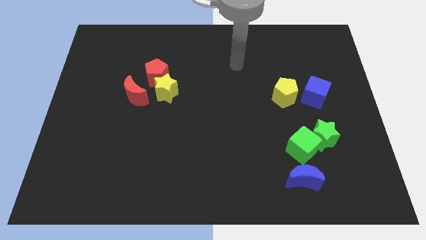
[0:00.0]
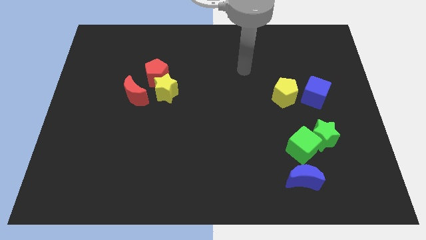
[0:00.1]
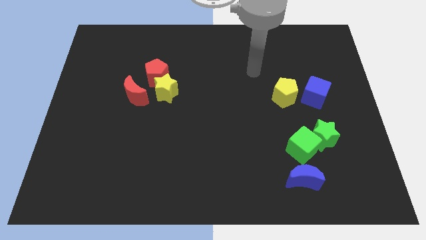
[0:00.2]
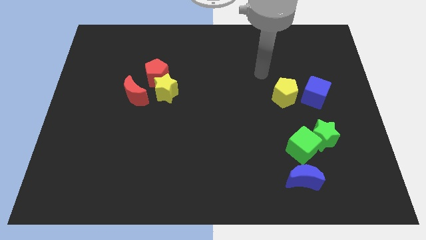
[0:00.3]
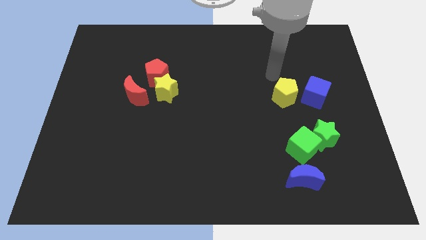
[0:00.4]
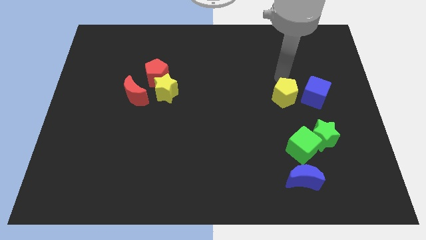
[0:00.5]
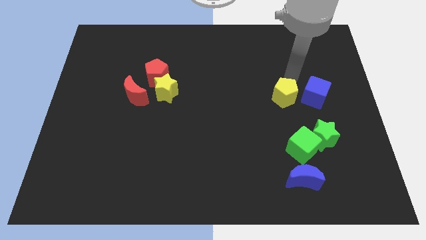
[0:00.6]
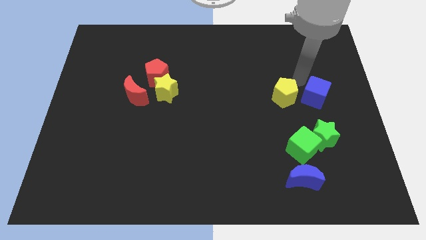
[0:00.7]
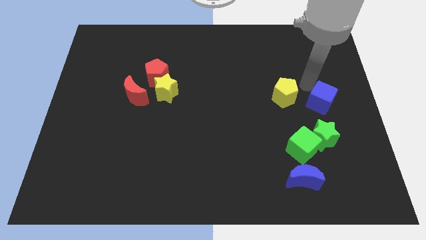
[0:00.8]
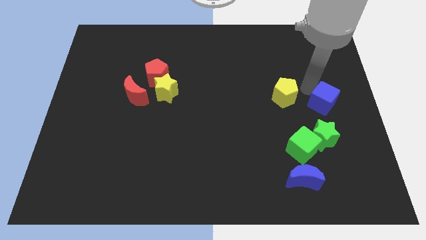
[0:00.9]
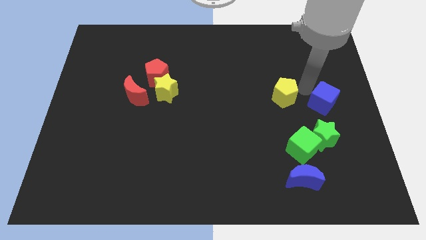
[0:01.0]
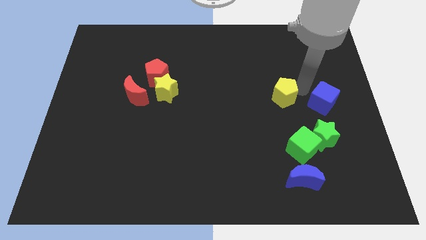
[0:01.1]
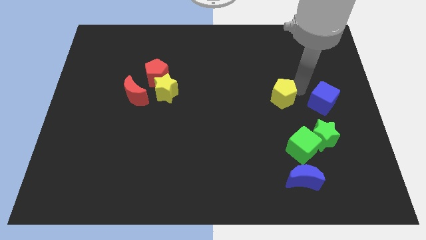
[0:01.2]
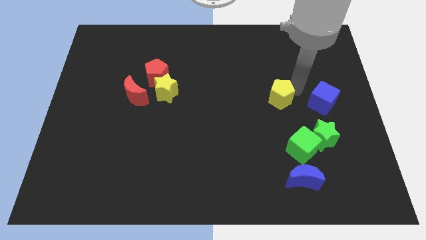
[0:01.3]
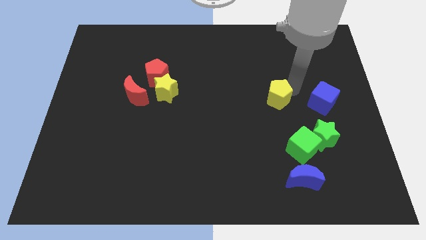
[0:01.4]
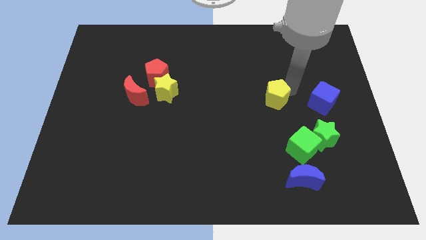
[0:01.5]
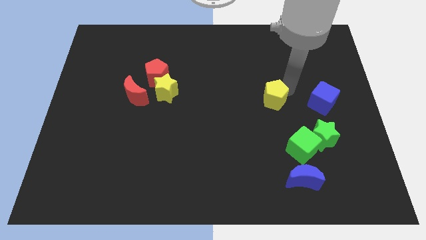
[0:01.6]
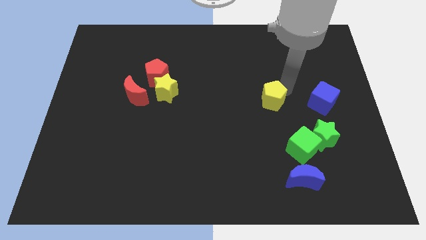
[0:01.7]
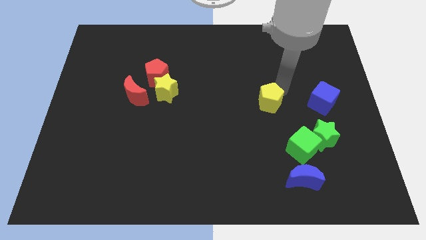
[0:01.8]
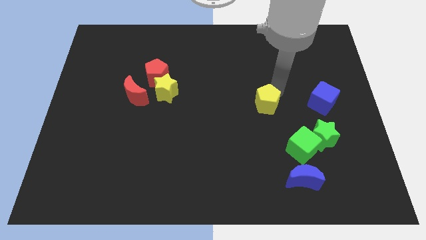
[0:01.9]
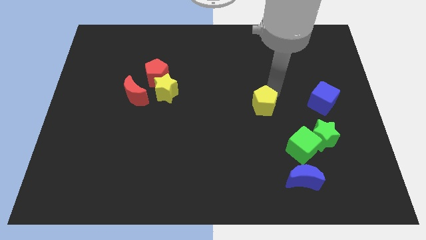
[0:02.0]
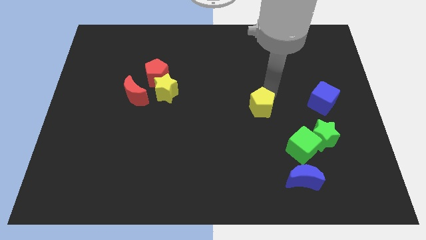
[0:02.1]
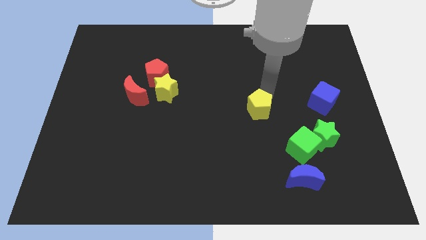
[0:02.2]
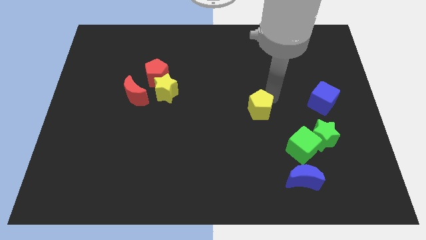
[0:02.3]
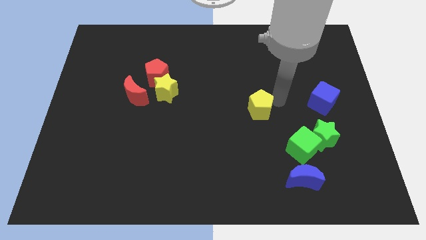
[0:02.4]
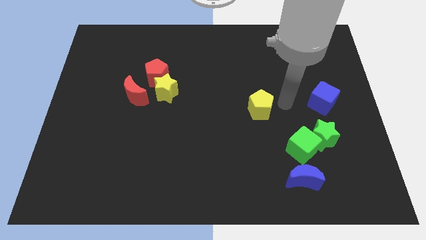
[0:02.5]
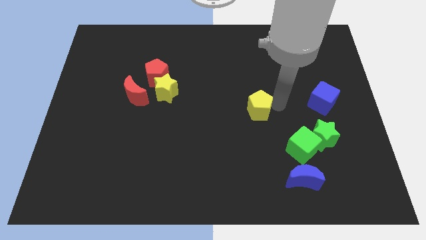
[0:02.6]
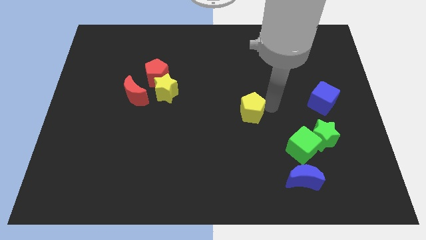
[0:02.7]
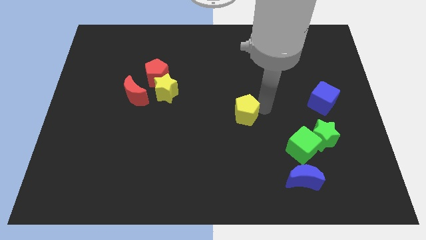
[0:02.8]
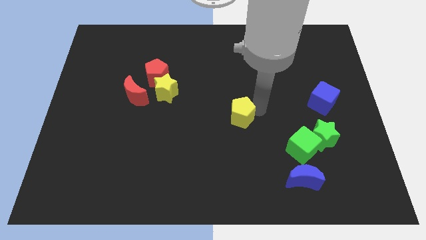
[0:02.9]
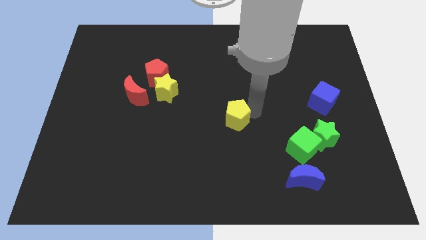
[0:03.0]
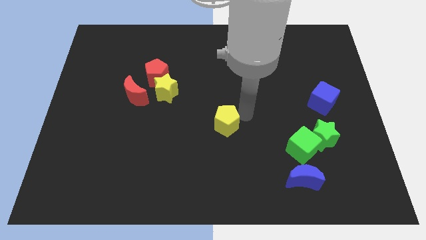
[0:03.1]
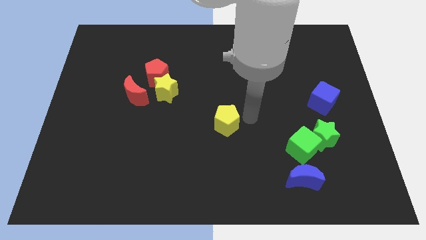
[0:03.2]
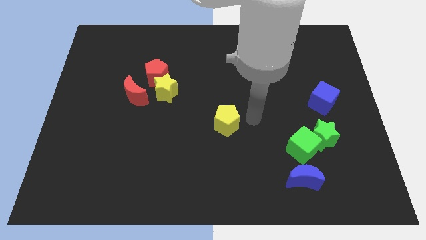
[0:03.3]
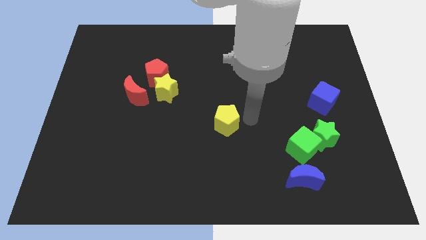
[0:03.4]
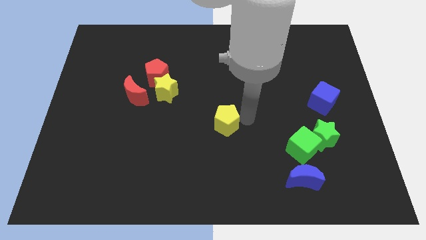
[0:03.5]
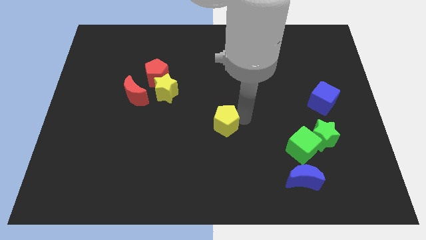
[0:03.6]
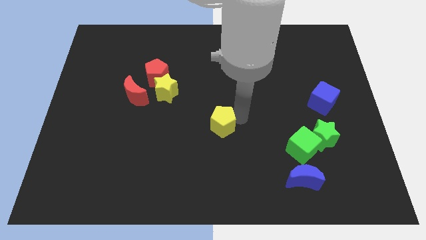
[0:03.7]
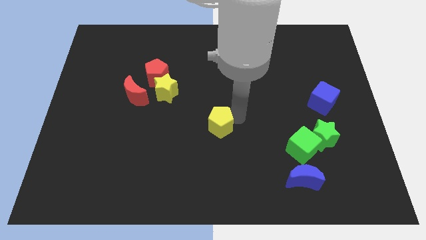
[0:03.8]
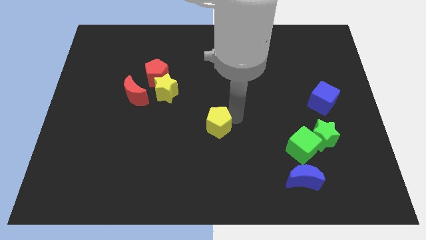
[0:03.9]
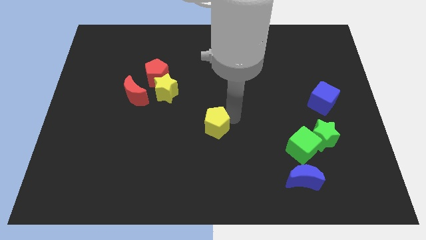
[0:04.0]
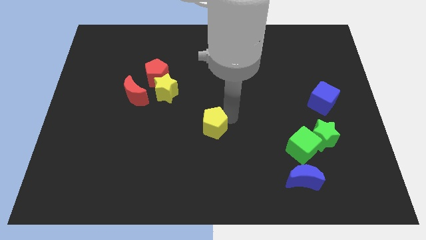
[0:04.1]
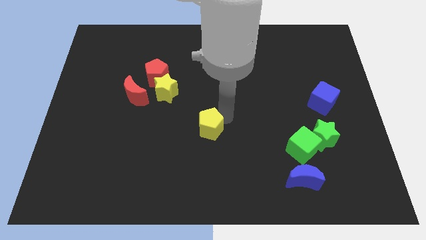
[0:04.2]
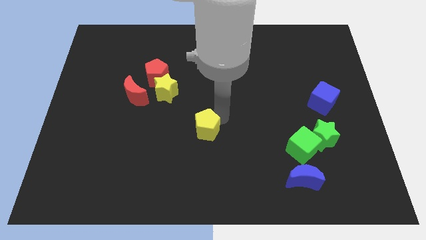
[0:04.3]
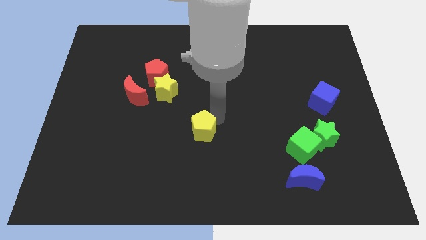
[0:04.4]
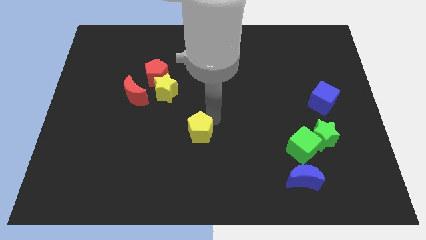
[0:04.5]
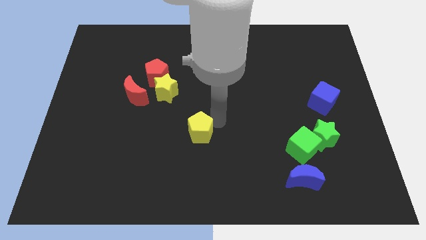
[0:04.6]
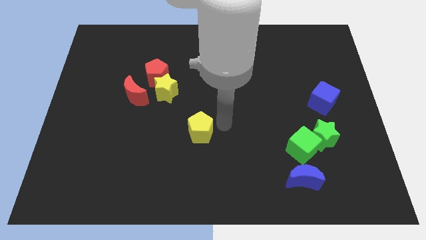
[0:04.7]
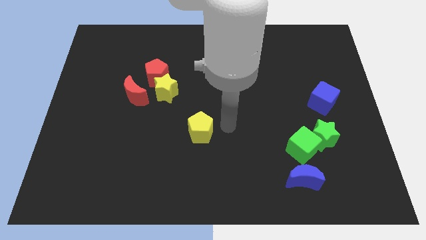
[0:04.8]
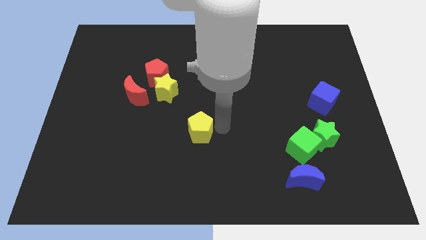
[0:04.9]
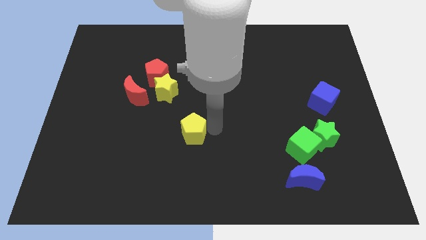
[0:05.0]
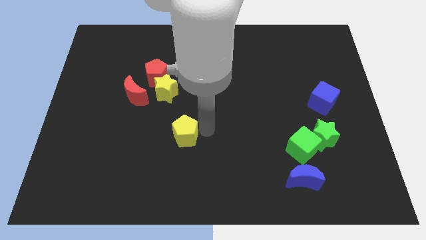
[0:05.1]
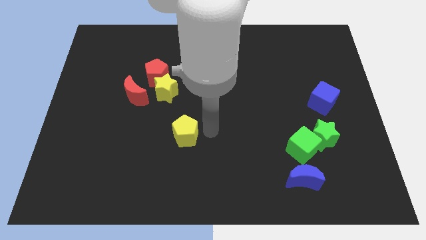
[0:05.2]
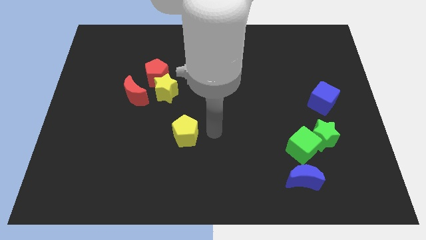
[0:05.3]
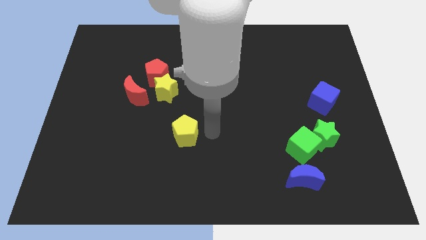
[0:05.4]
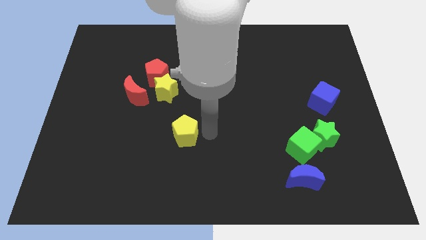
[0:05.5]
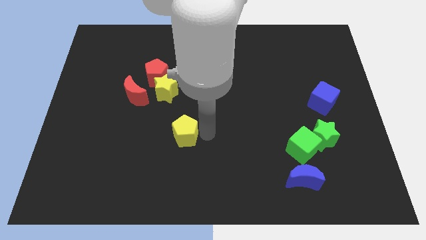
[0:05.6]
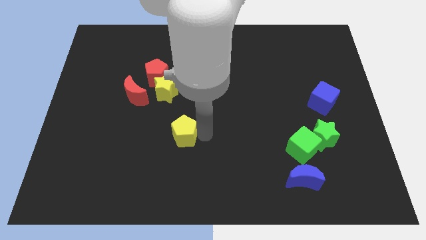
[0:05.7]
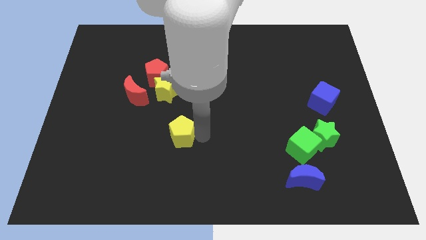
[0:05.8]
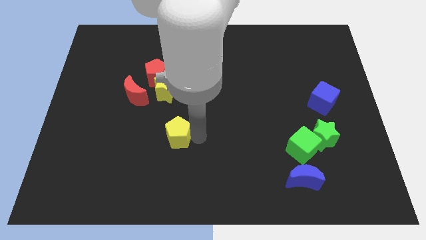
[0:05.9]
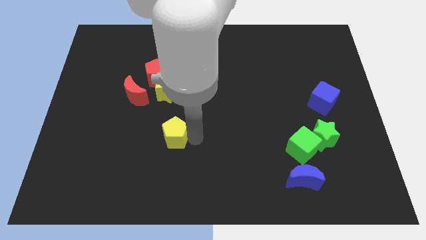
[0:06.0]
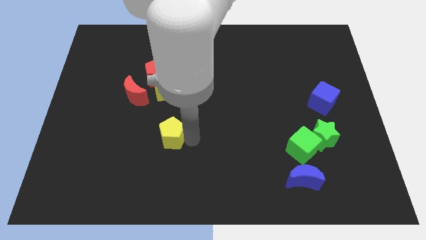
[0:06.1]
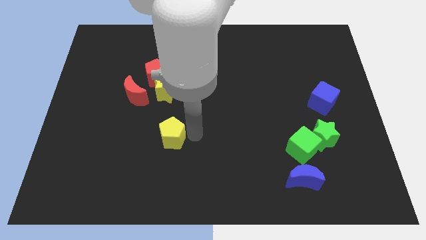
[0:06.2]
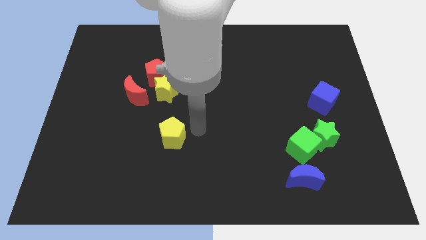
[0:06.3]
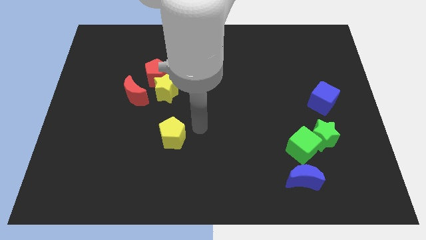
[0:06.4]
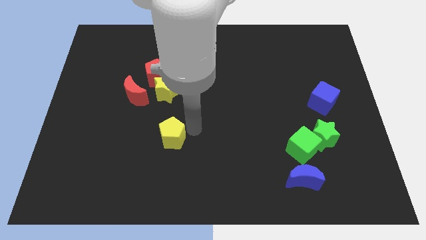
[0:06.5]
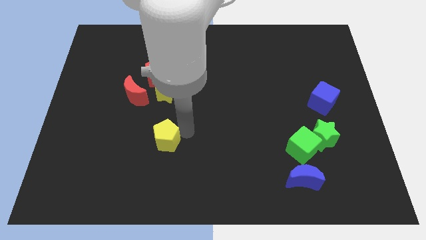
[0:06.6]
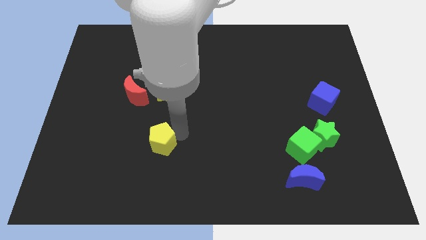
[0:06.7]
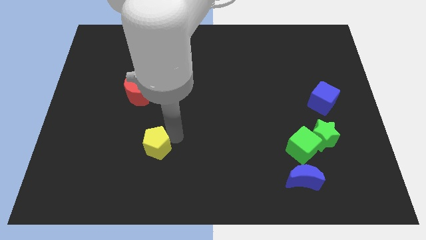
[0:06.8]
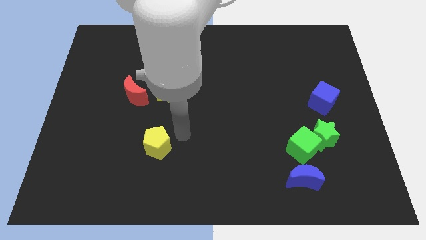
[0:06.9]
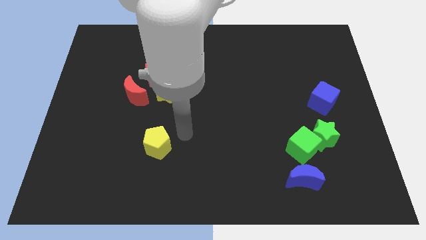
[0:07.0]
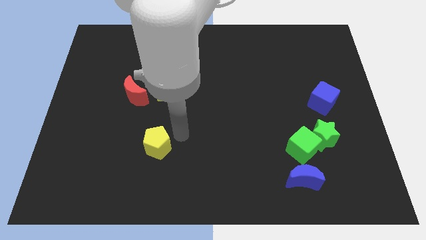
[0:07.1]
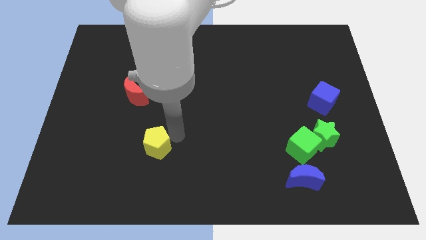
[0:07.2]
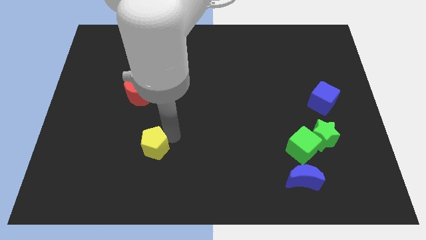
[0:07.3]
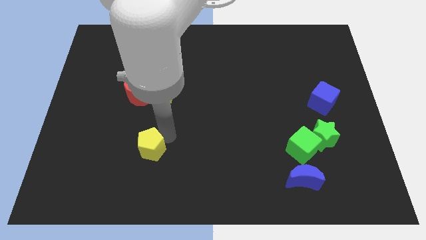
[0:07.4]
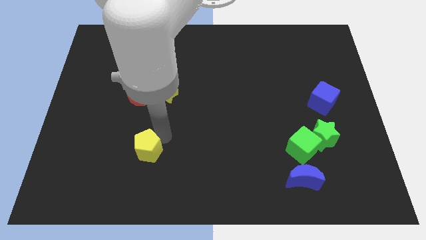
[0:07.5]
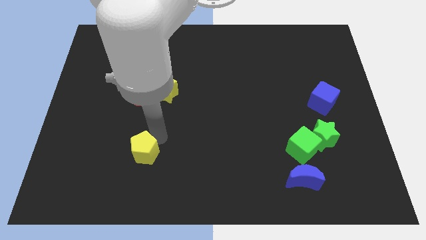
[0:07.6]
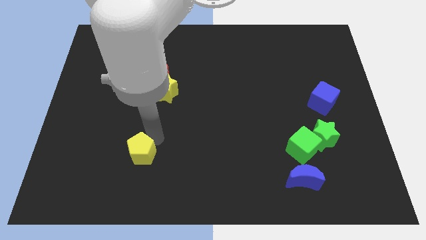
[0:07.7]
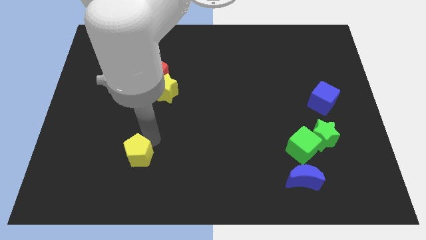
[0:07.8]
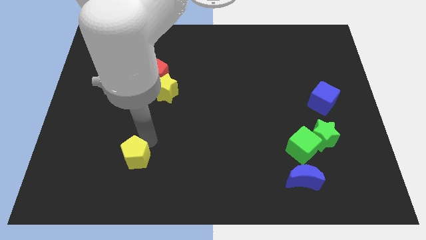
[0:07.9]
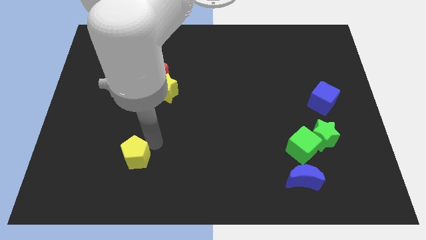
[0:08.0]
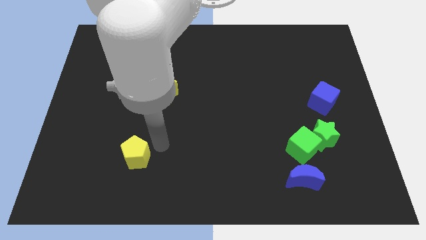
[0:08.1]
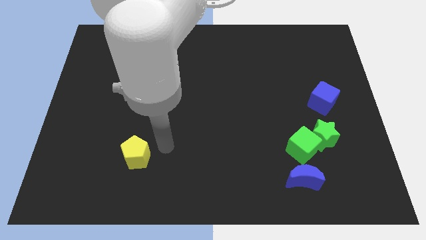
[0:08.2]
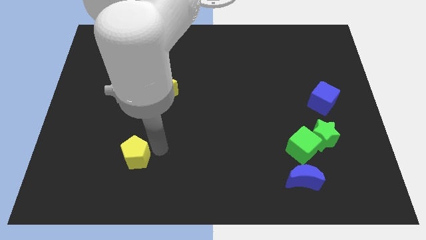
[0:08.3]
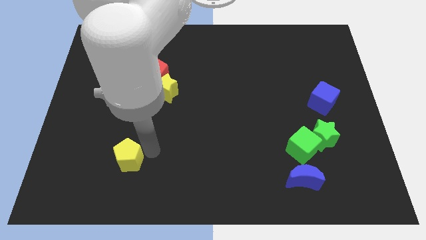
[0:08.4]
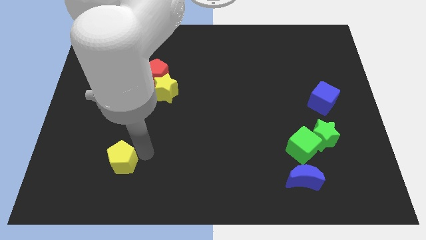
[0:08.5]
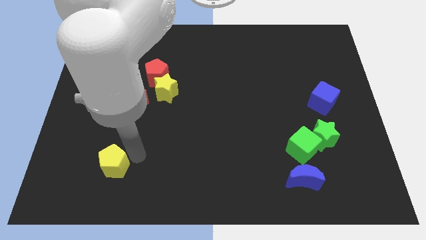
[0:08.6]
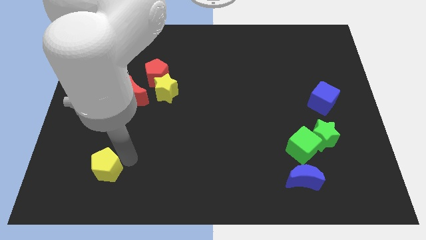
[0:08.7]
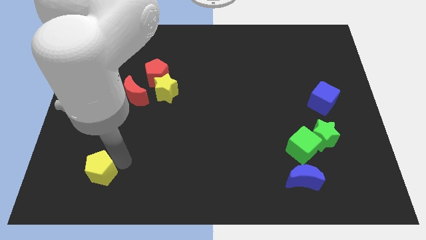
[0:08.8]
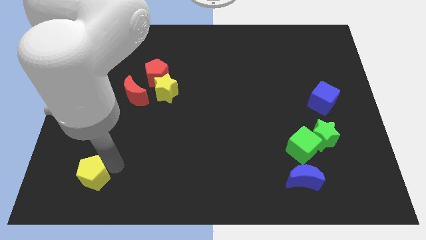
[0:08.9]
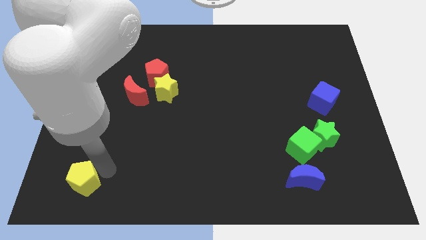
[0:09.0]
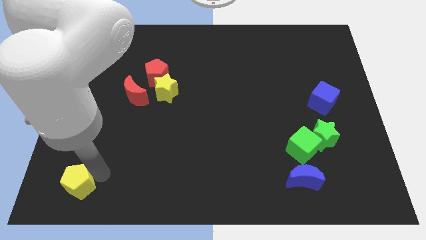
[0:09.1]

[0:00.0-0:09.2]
slide the yellow pentagon to the lower left corner
